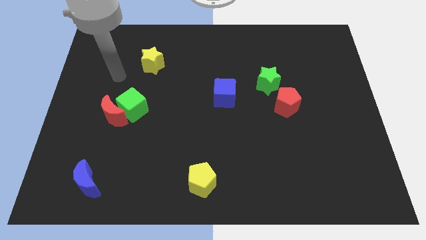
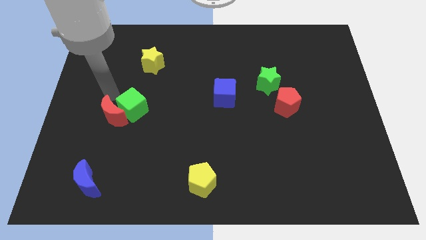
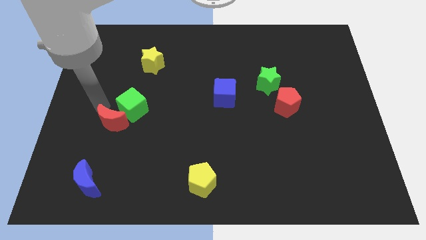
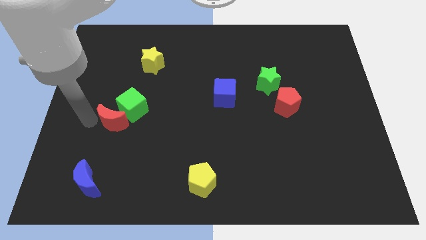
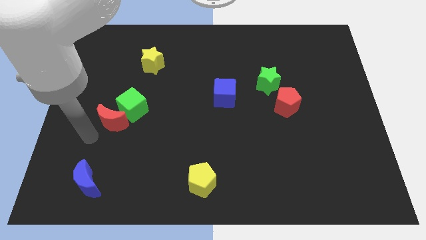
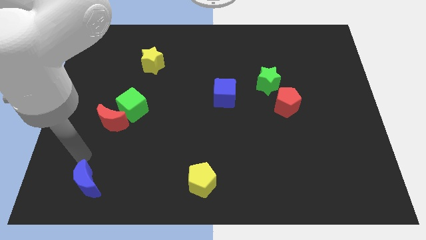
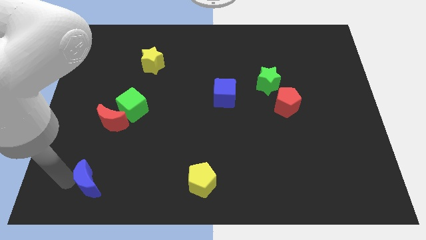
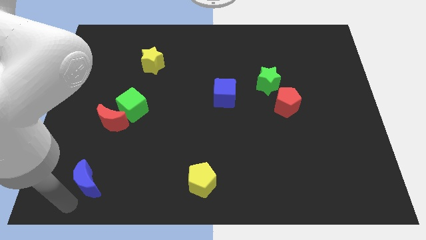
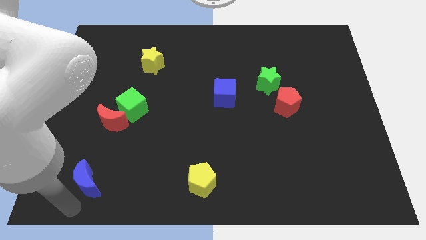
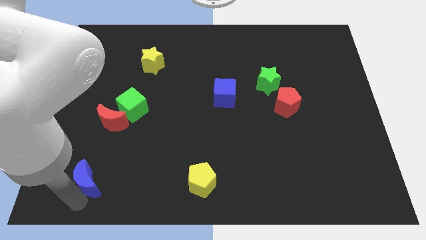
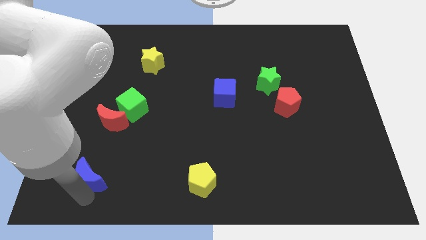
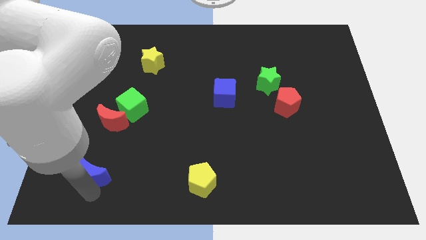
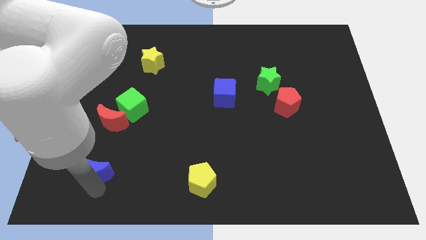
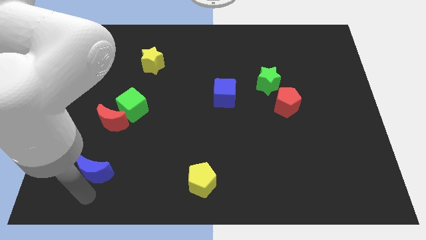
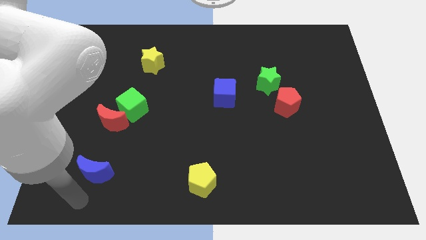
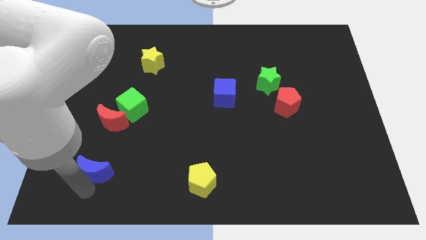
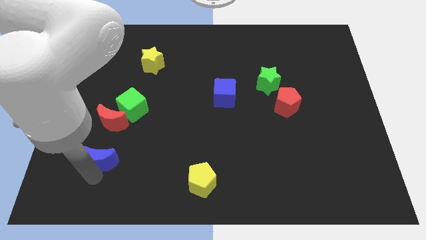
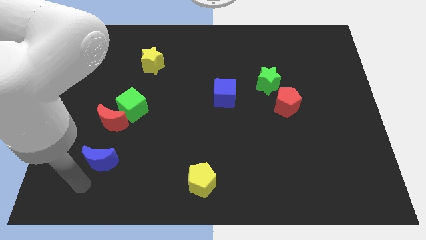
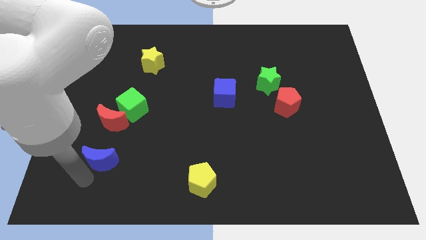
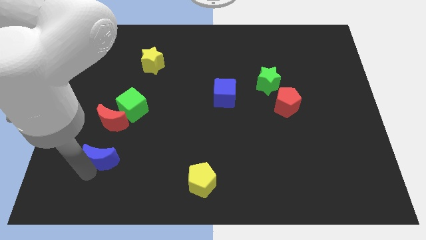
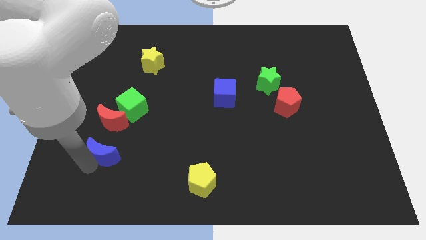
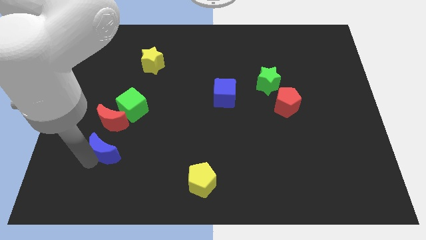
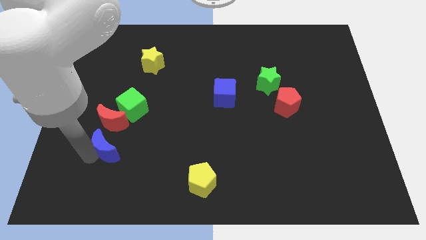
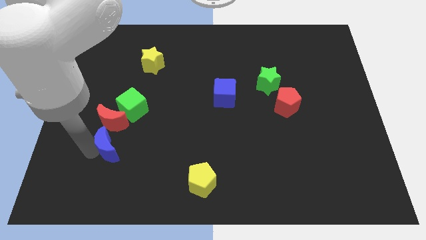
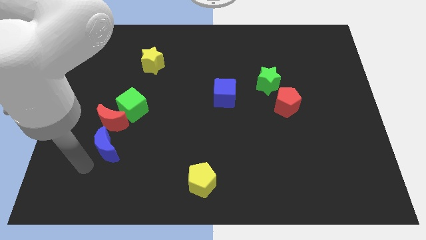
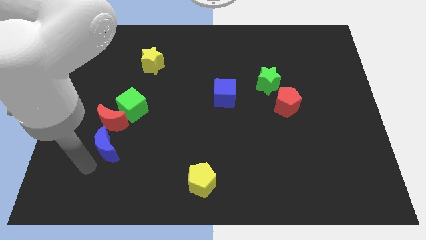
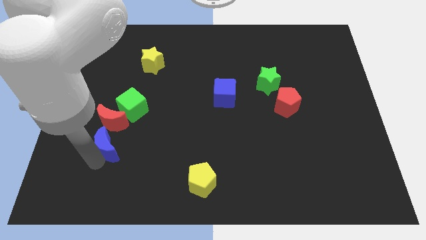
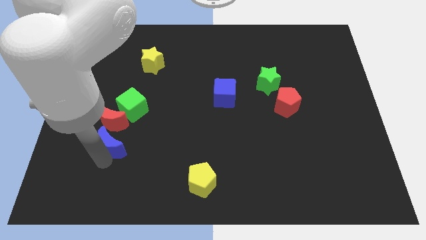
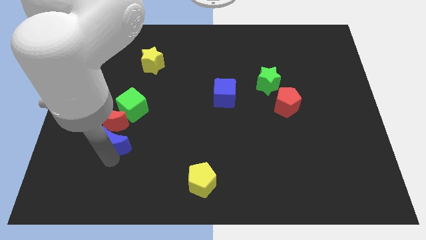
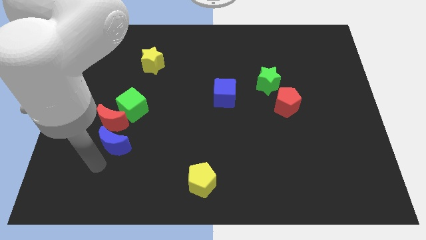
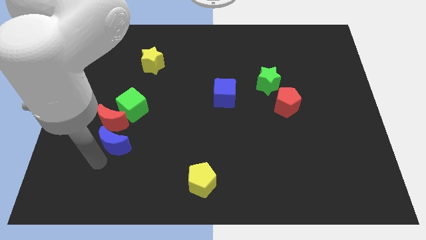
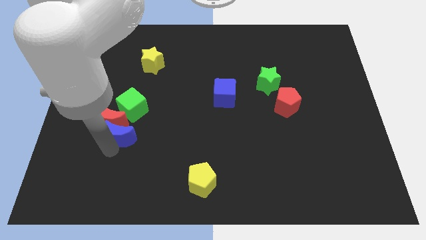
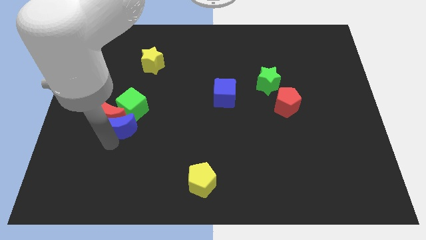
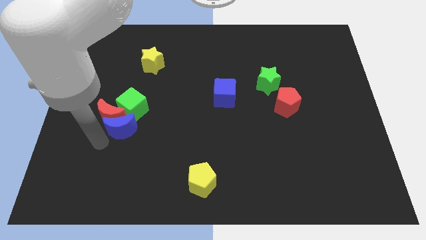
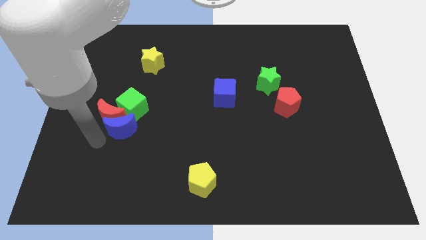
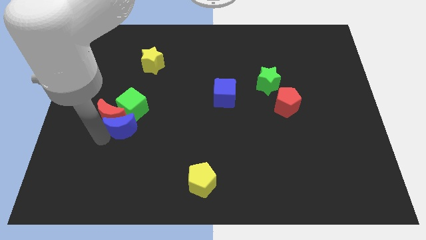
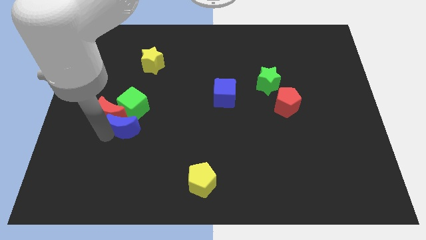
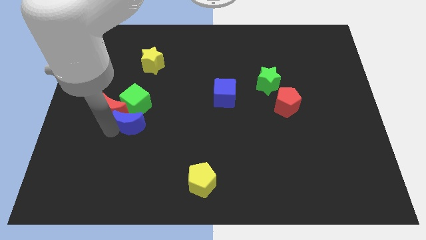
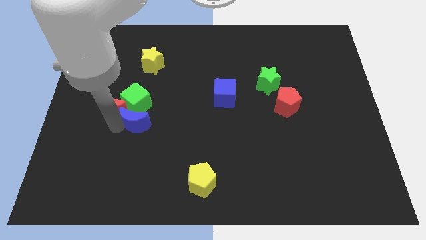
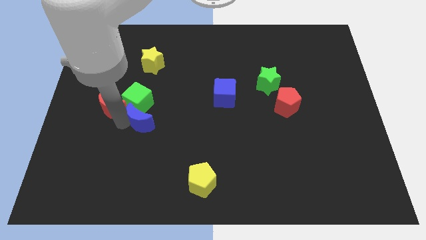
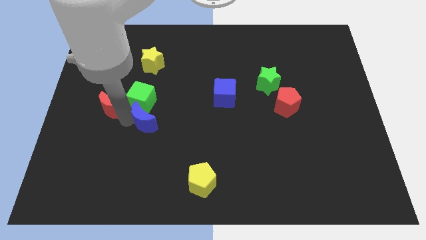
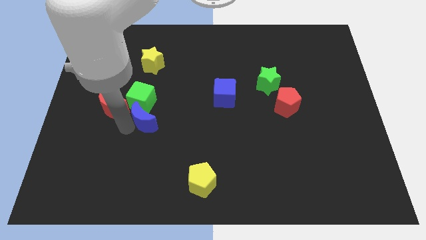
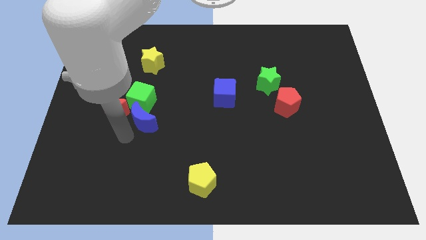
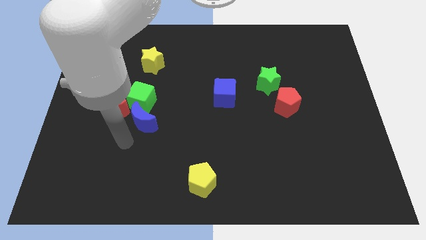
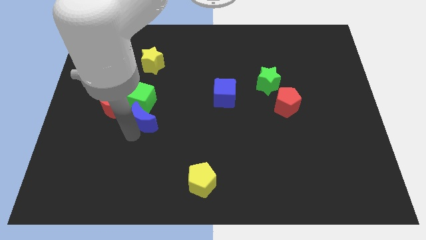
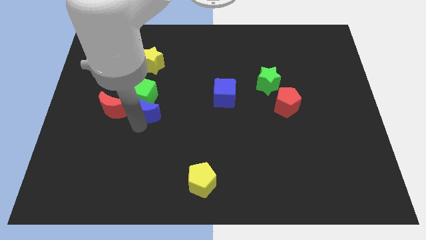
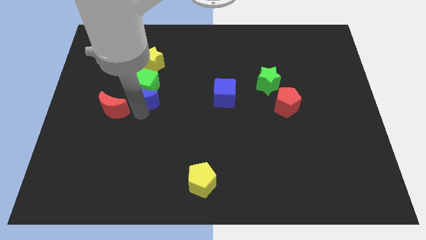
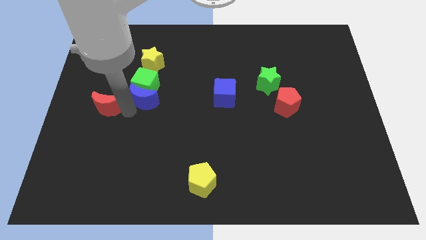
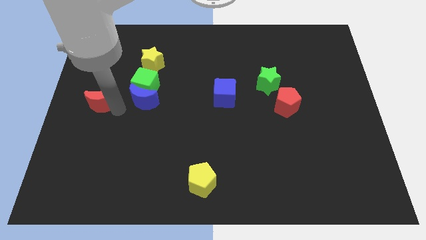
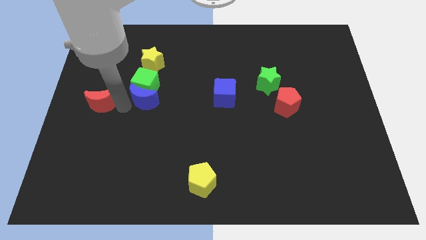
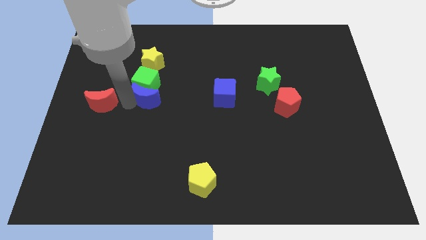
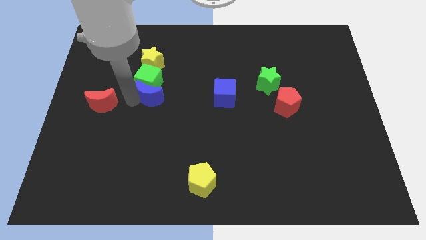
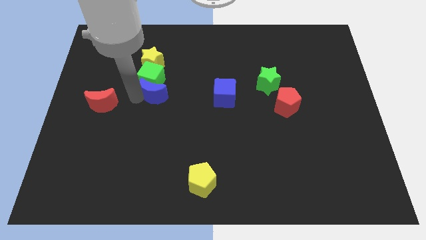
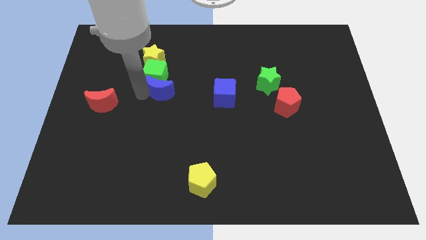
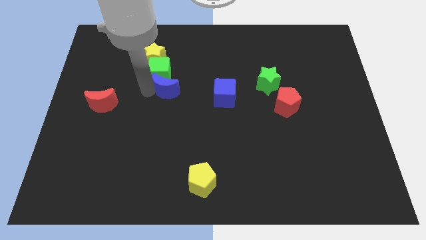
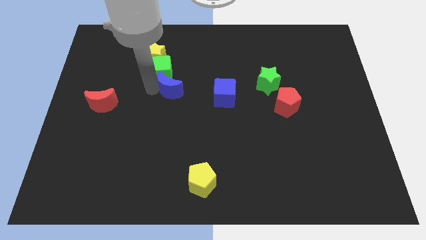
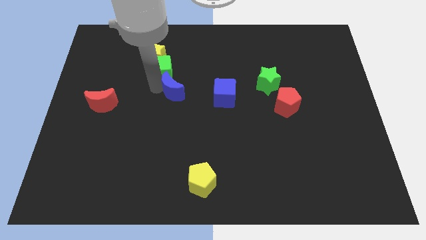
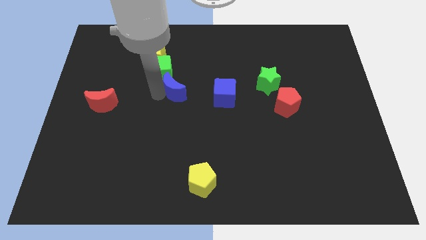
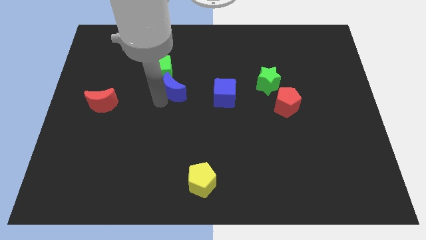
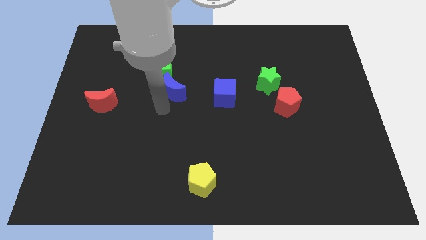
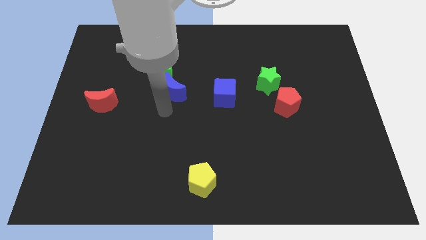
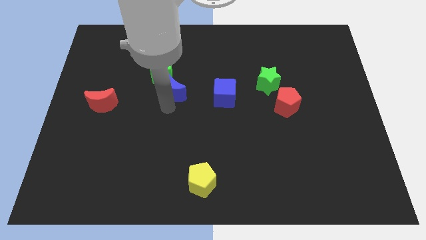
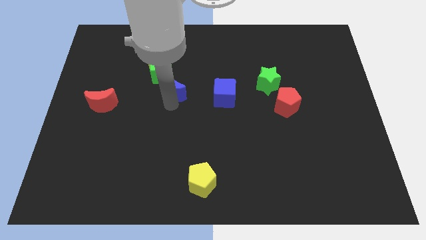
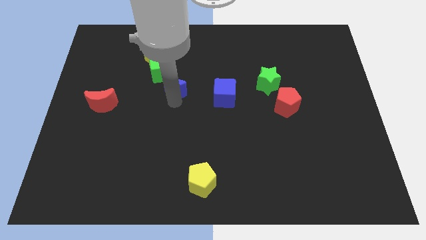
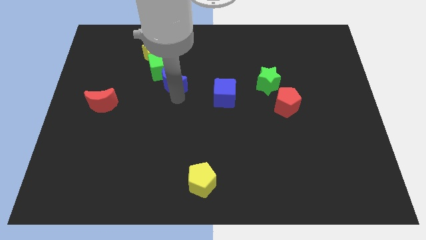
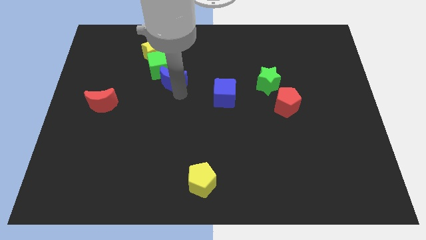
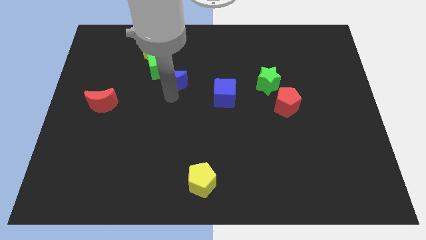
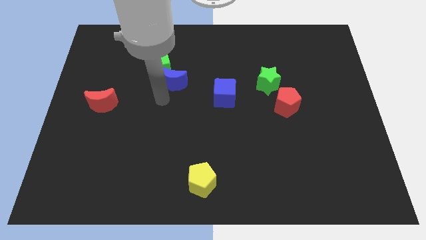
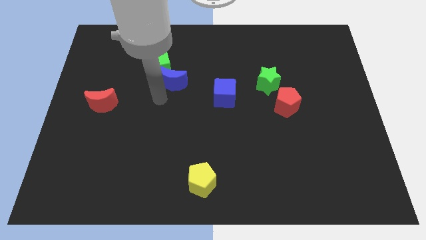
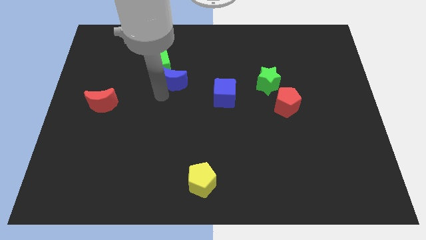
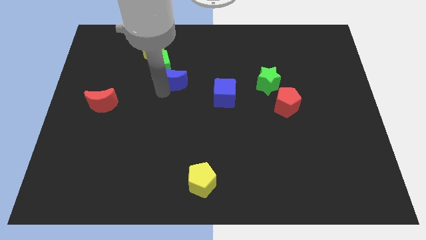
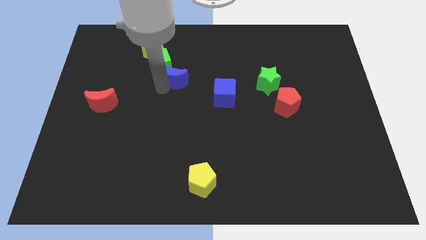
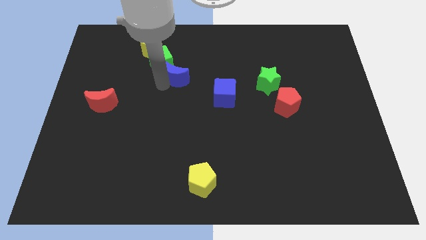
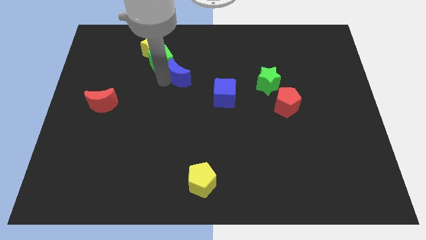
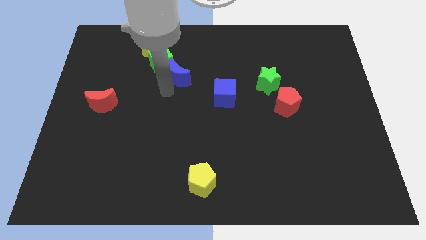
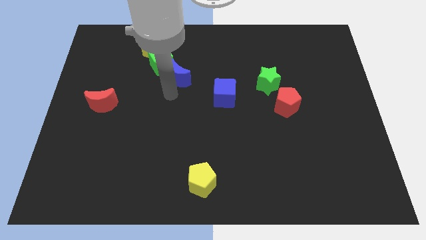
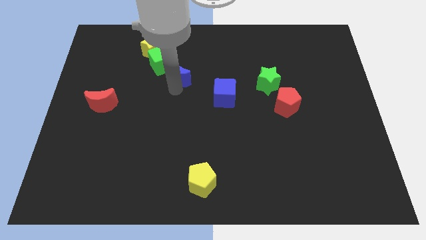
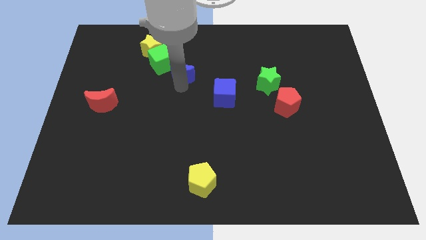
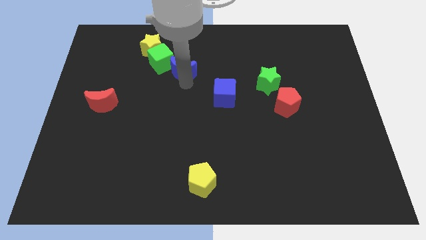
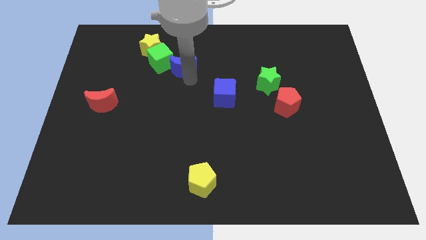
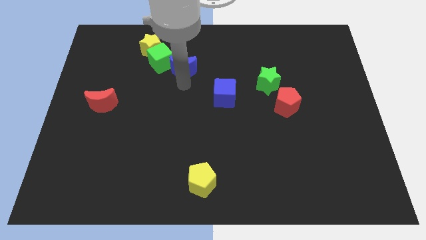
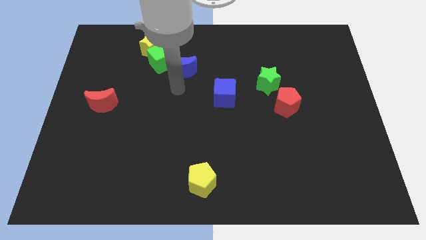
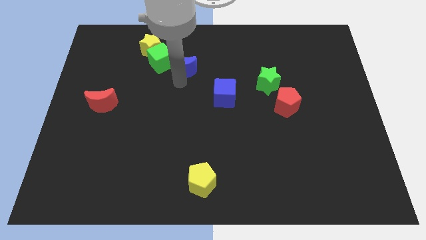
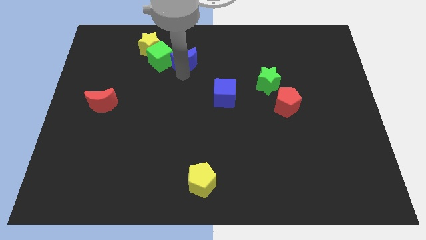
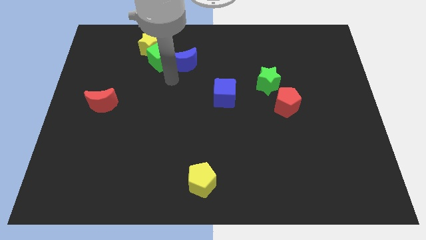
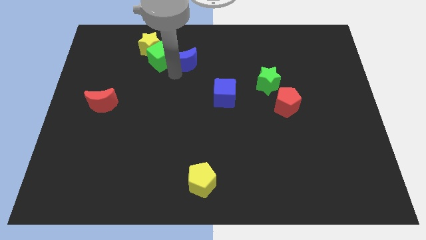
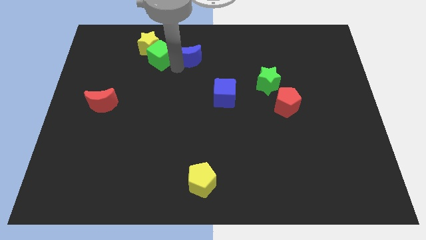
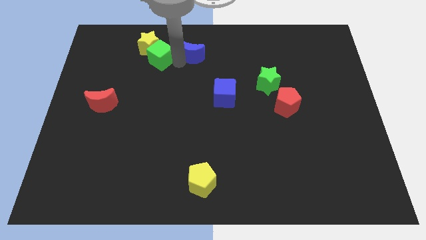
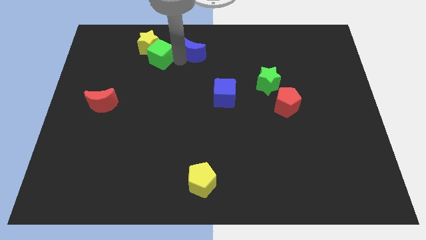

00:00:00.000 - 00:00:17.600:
slide the blue moon to the top
